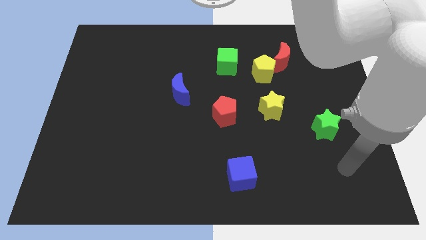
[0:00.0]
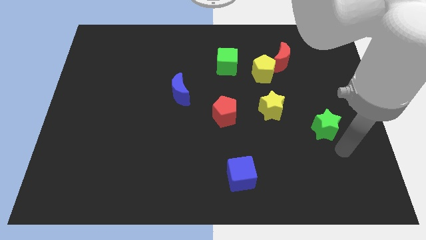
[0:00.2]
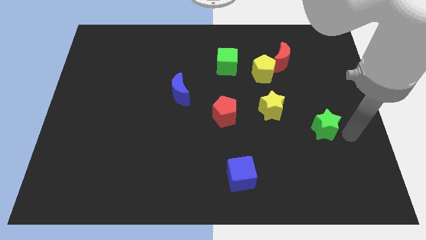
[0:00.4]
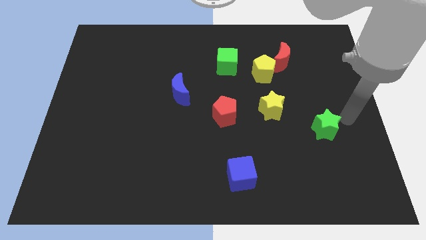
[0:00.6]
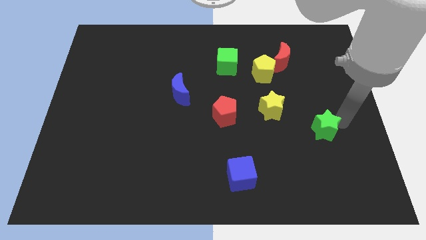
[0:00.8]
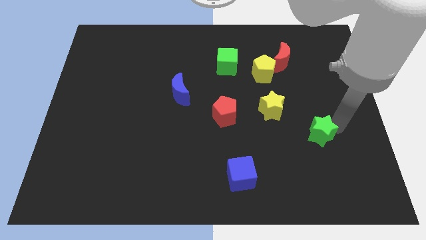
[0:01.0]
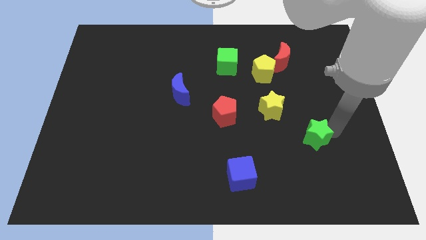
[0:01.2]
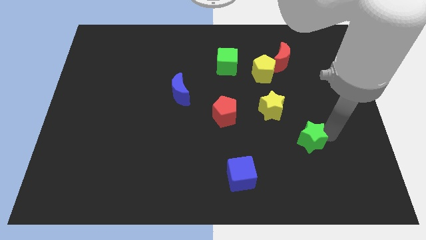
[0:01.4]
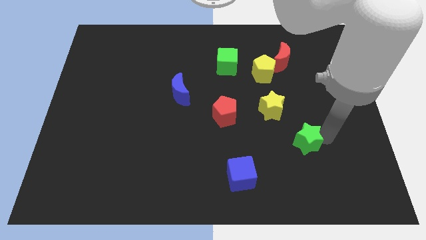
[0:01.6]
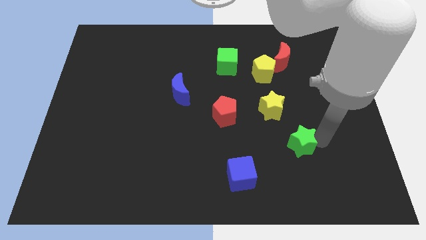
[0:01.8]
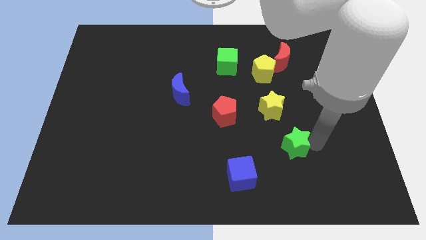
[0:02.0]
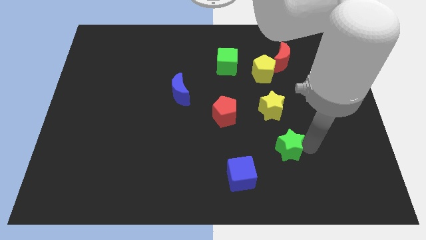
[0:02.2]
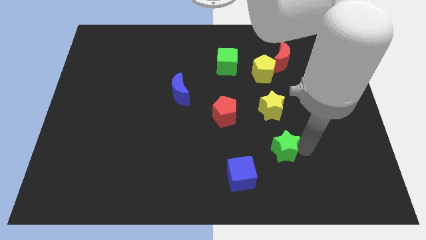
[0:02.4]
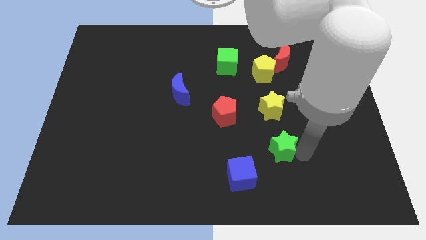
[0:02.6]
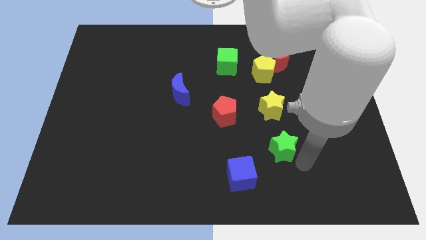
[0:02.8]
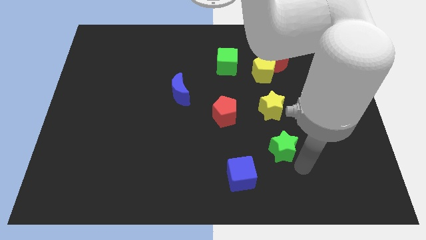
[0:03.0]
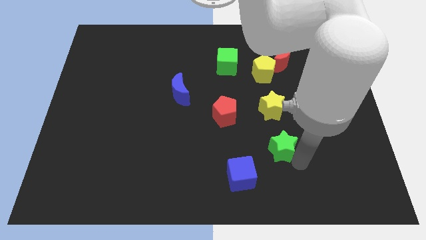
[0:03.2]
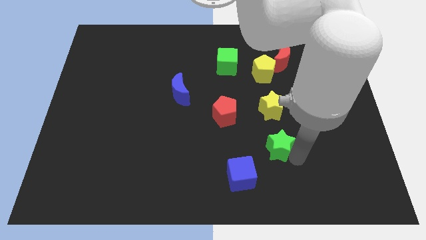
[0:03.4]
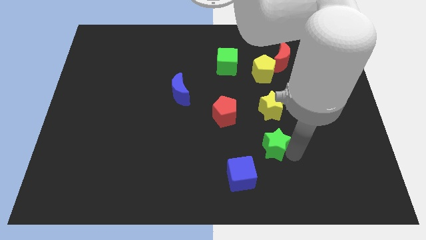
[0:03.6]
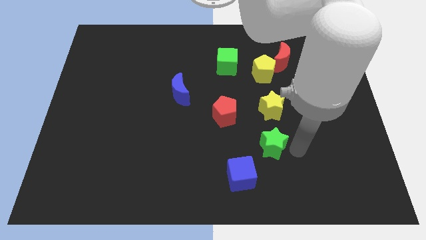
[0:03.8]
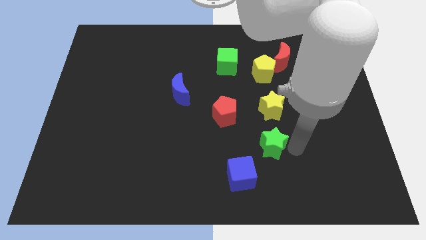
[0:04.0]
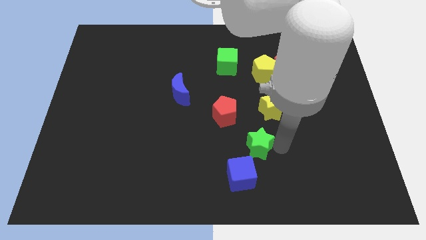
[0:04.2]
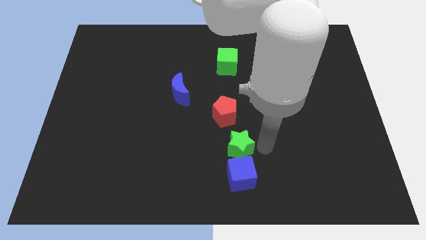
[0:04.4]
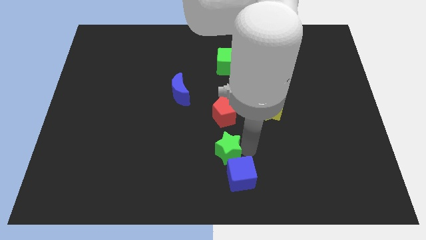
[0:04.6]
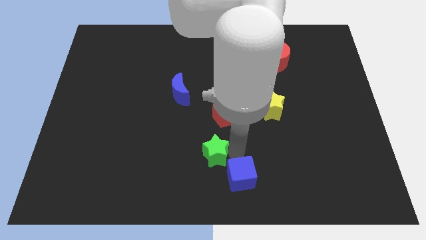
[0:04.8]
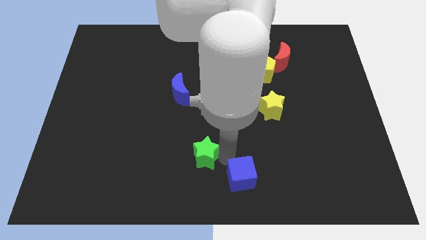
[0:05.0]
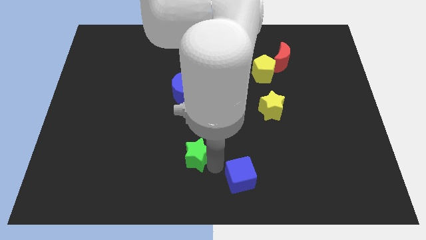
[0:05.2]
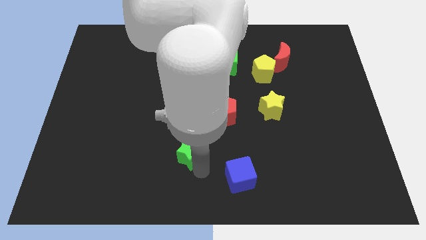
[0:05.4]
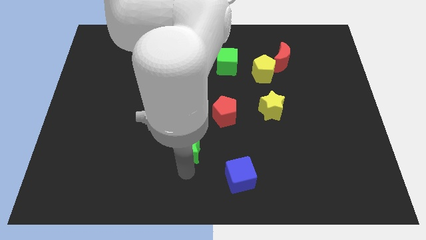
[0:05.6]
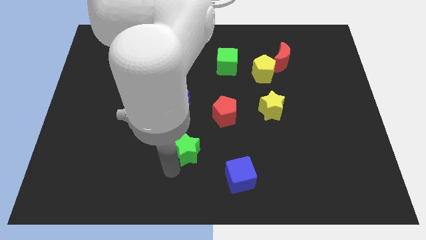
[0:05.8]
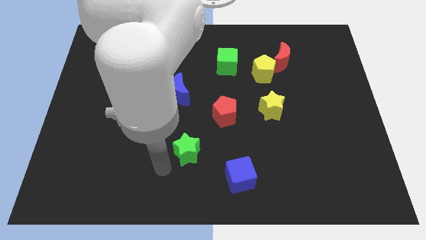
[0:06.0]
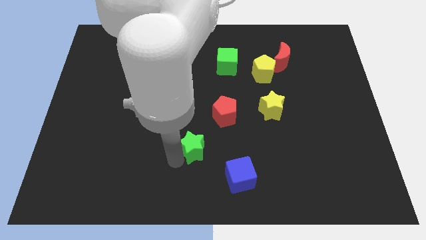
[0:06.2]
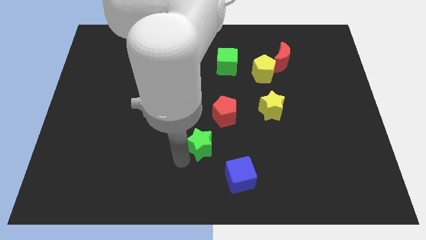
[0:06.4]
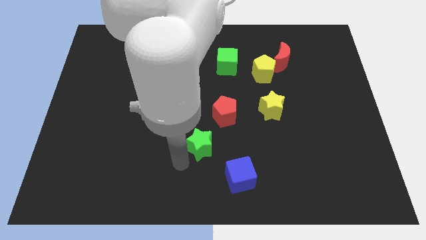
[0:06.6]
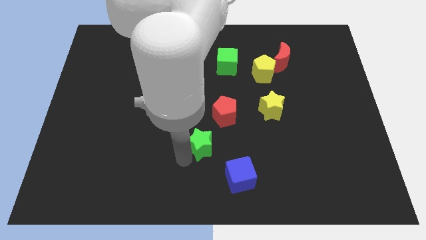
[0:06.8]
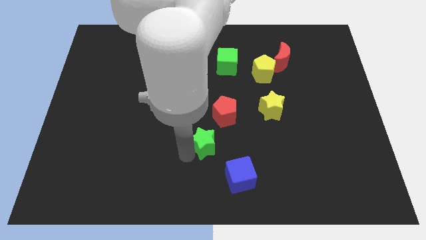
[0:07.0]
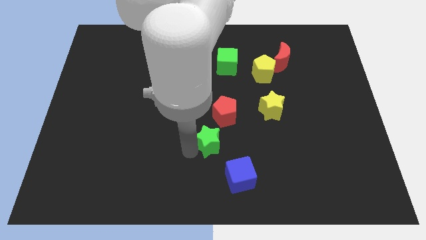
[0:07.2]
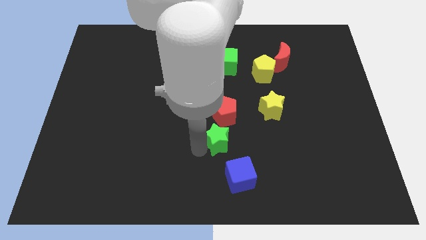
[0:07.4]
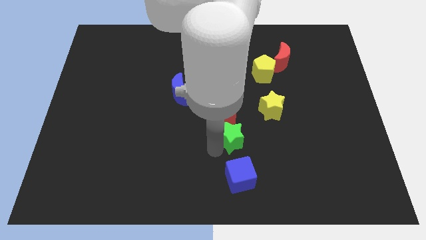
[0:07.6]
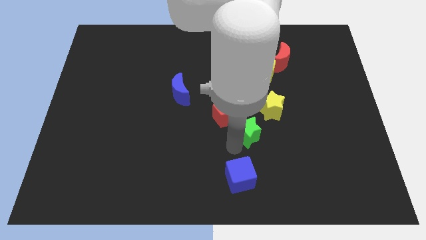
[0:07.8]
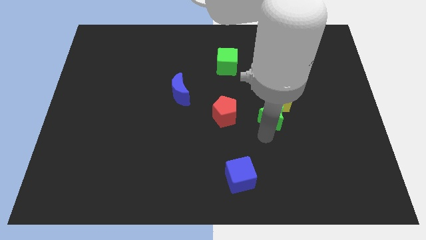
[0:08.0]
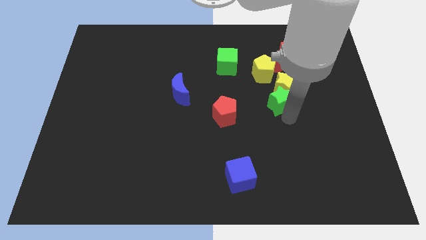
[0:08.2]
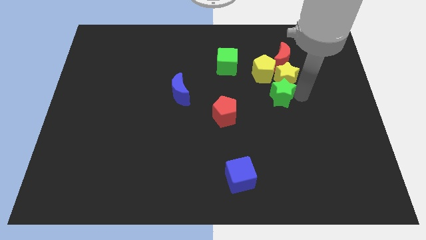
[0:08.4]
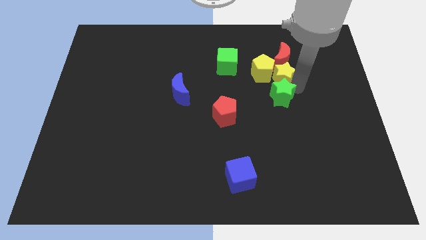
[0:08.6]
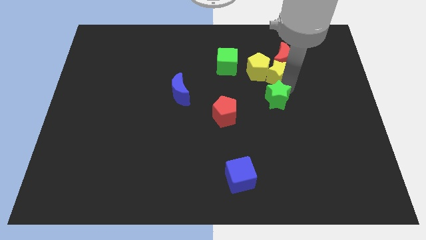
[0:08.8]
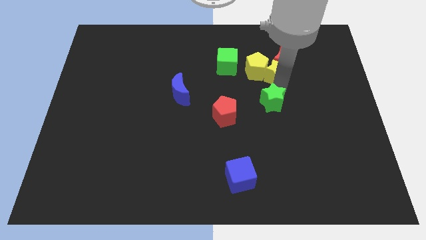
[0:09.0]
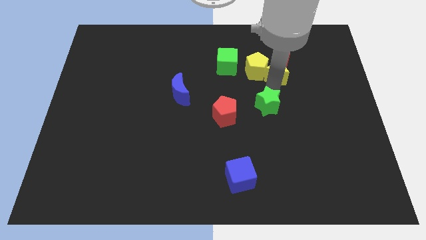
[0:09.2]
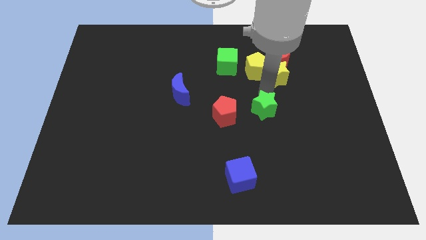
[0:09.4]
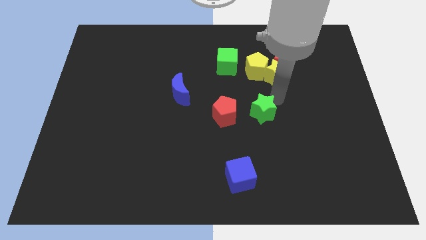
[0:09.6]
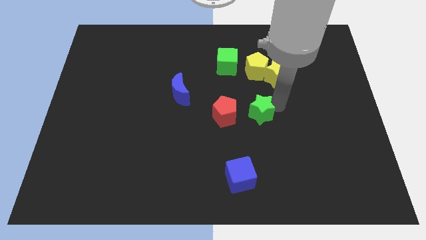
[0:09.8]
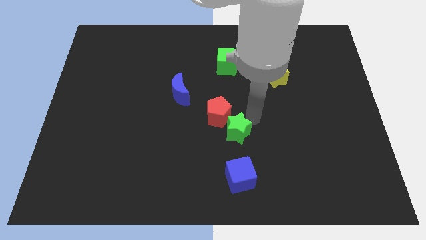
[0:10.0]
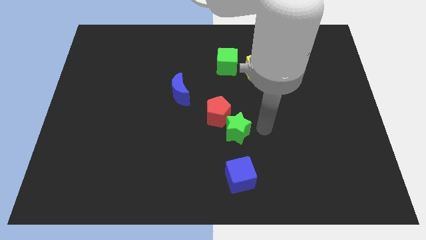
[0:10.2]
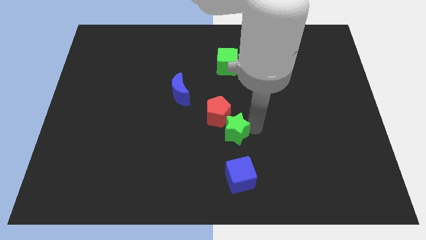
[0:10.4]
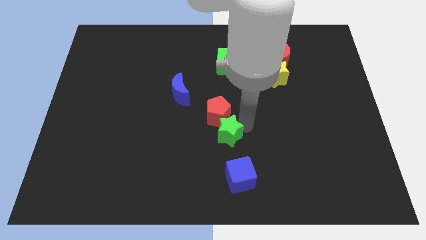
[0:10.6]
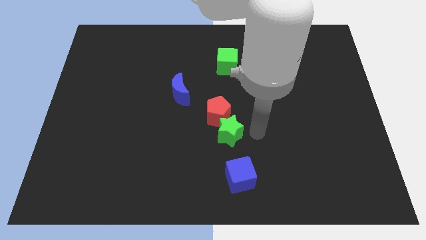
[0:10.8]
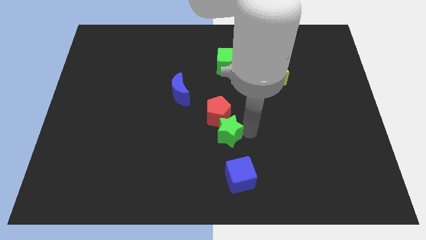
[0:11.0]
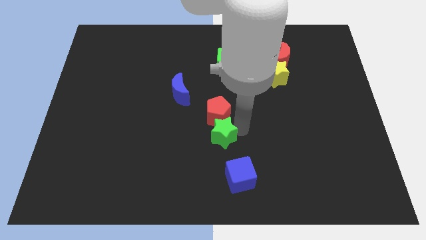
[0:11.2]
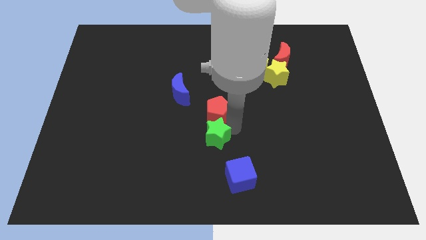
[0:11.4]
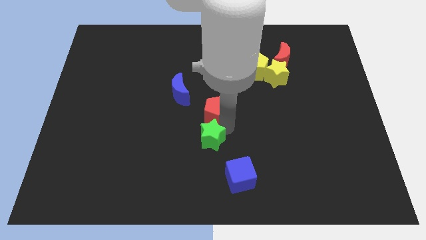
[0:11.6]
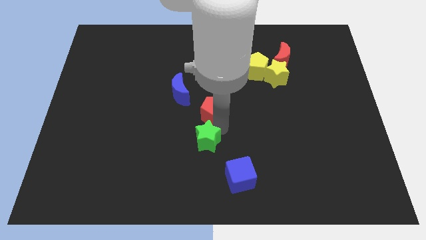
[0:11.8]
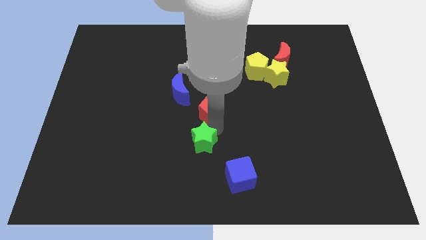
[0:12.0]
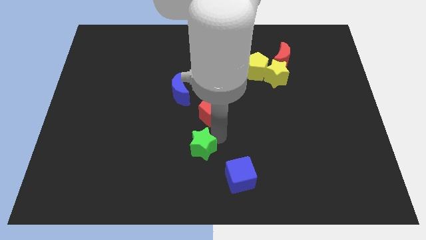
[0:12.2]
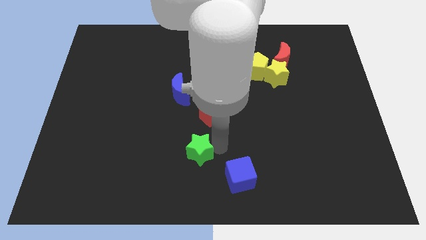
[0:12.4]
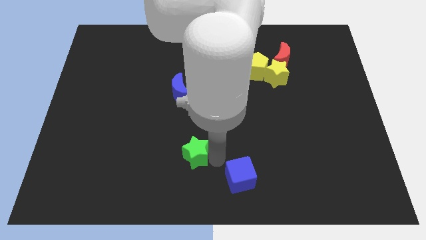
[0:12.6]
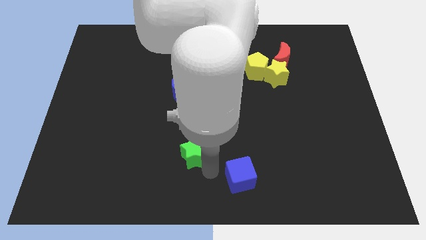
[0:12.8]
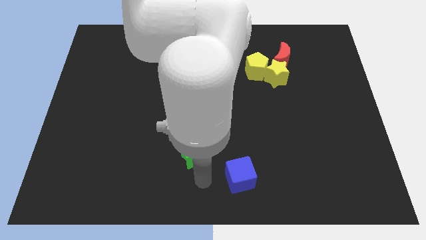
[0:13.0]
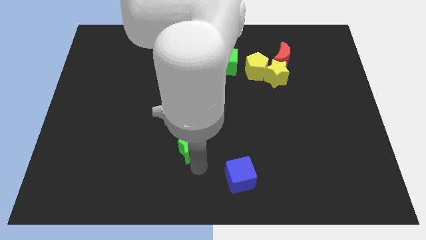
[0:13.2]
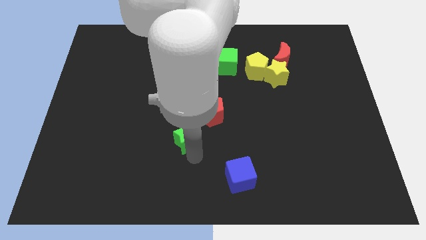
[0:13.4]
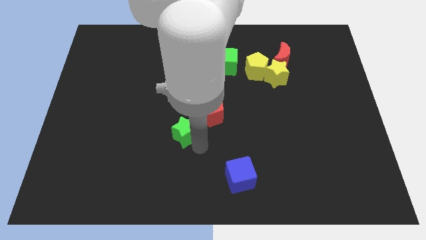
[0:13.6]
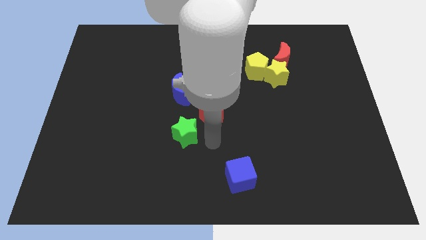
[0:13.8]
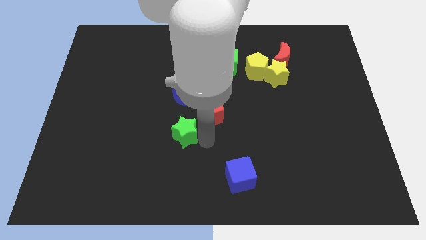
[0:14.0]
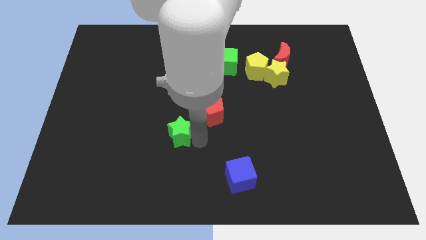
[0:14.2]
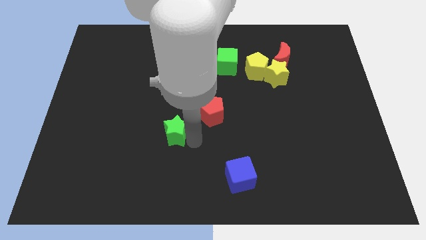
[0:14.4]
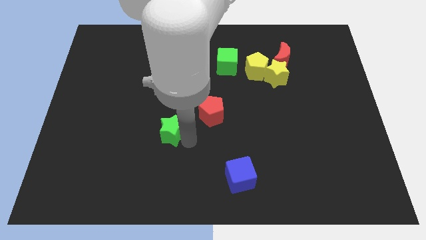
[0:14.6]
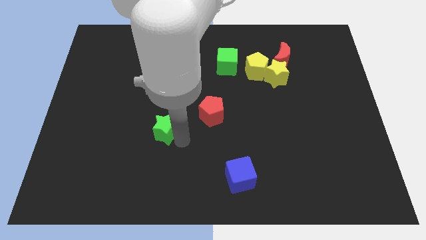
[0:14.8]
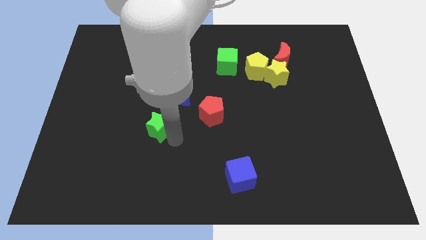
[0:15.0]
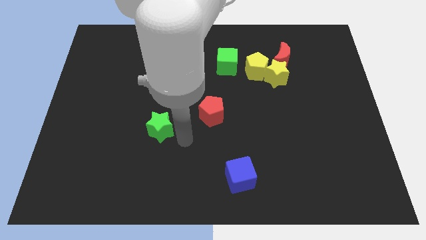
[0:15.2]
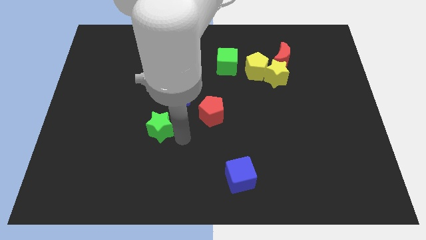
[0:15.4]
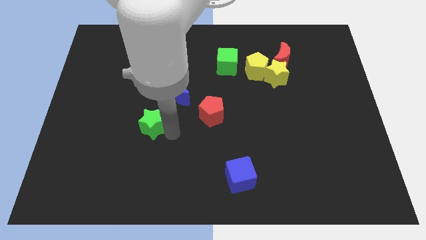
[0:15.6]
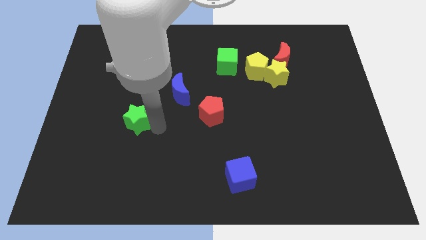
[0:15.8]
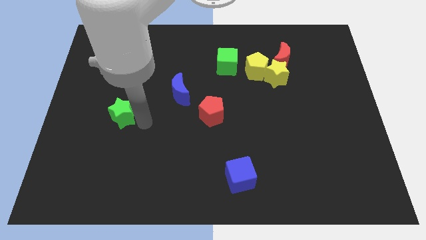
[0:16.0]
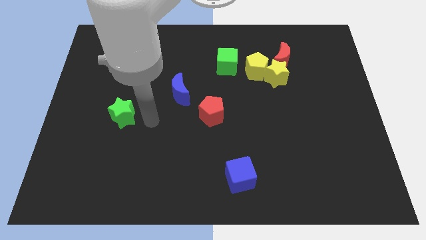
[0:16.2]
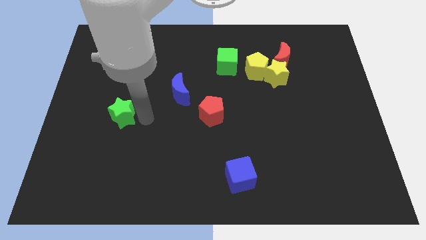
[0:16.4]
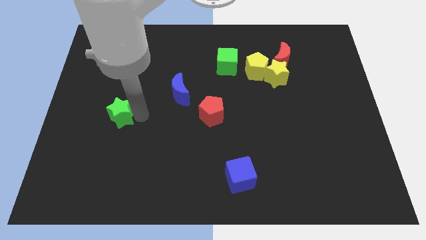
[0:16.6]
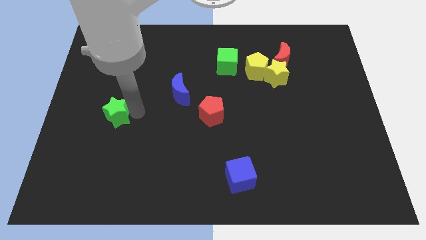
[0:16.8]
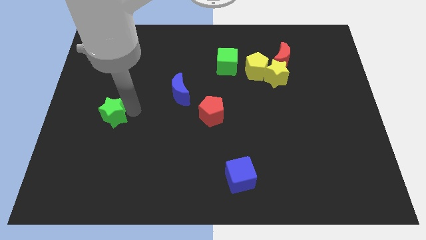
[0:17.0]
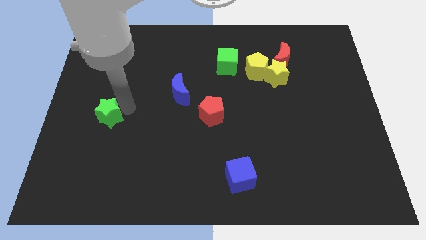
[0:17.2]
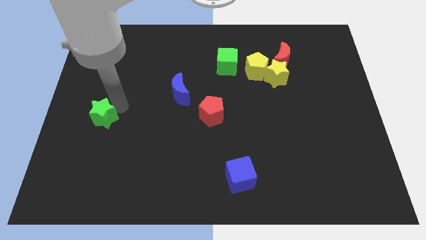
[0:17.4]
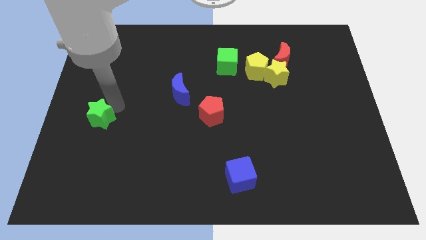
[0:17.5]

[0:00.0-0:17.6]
put the green star to the left side
